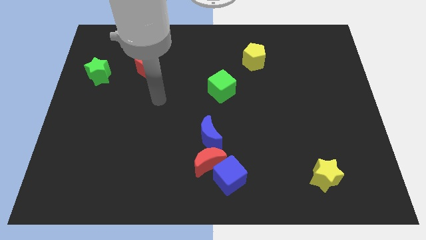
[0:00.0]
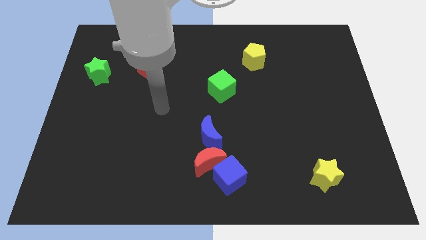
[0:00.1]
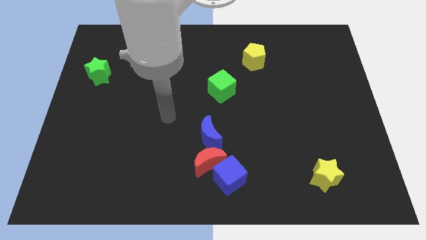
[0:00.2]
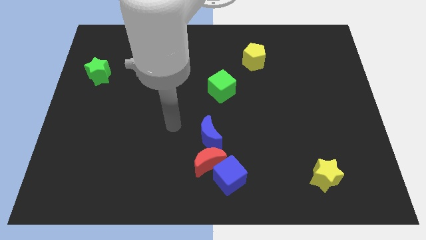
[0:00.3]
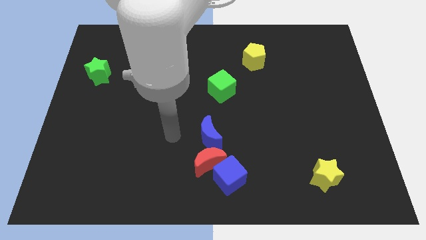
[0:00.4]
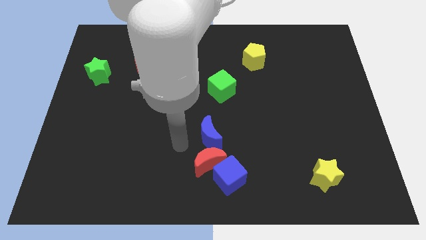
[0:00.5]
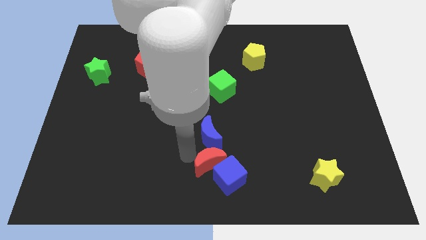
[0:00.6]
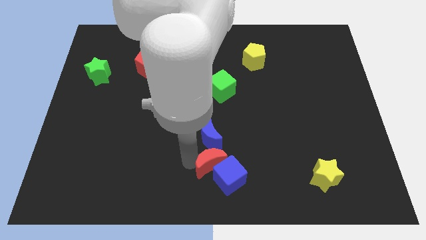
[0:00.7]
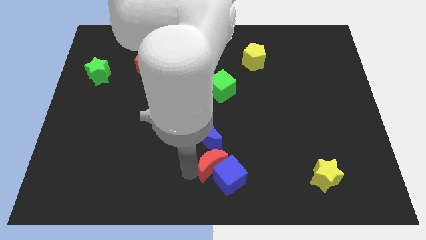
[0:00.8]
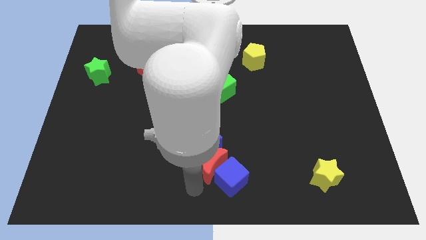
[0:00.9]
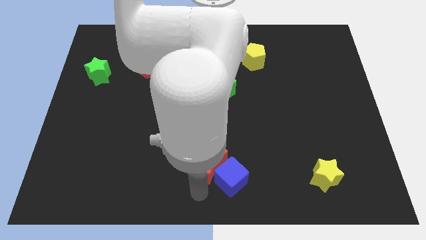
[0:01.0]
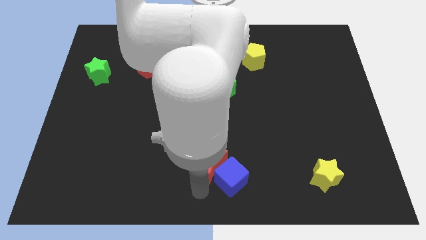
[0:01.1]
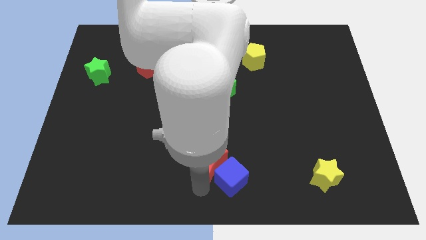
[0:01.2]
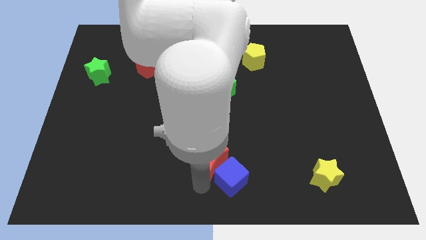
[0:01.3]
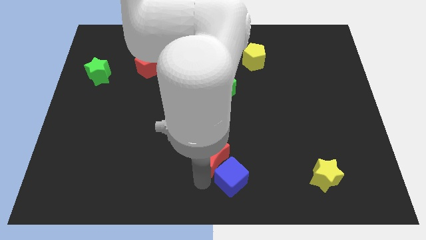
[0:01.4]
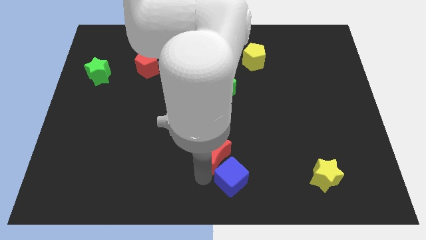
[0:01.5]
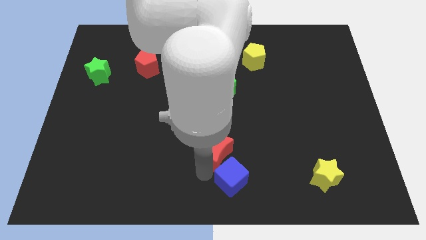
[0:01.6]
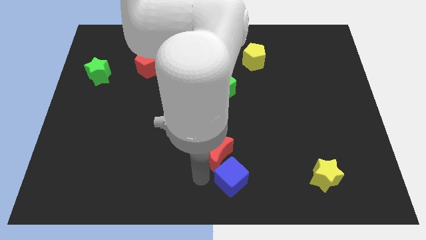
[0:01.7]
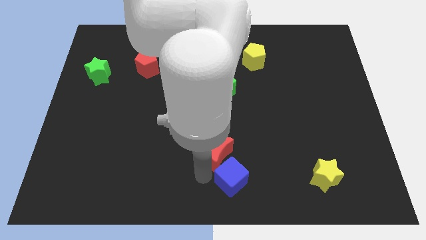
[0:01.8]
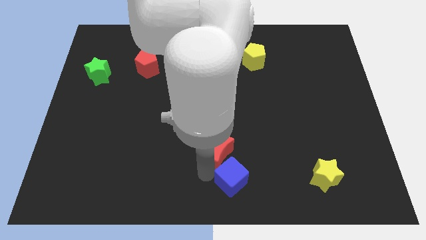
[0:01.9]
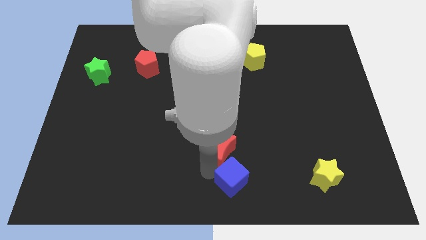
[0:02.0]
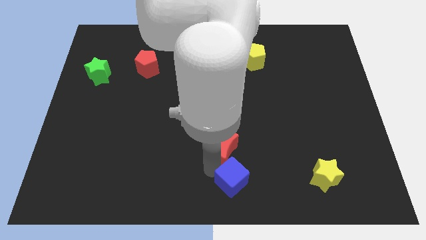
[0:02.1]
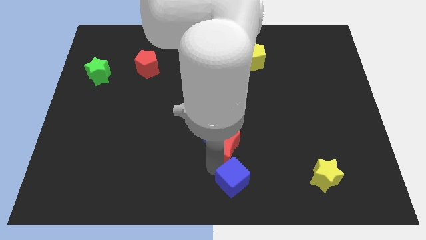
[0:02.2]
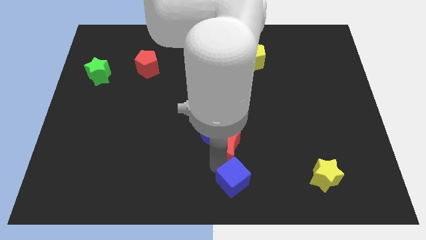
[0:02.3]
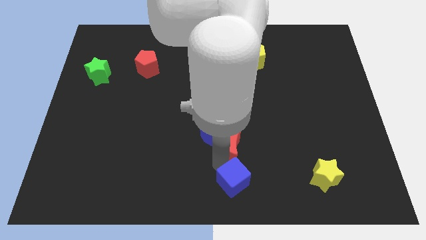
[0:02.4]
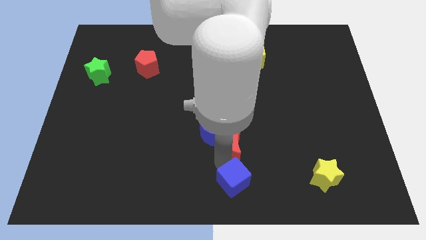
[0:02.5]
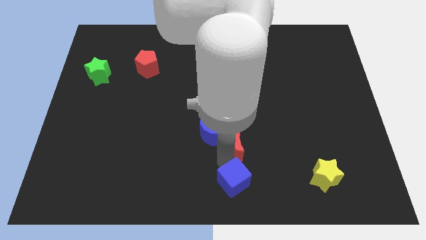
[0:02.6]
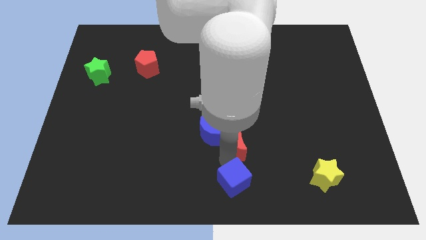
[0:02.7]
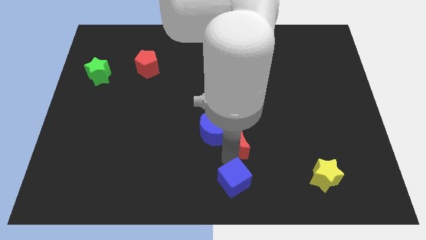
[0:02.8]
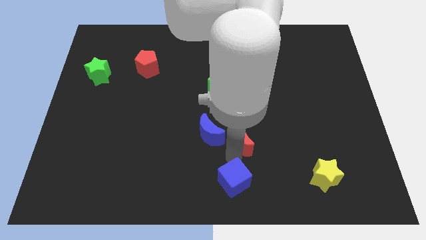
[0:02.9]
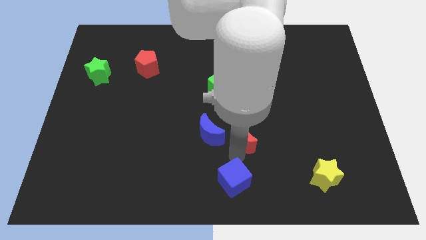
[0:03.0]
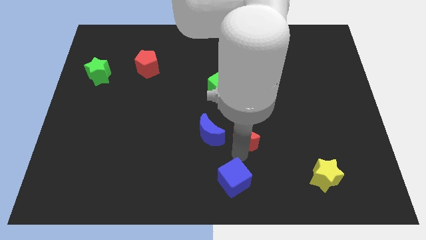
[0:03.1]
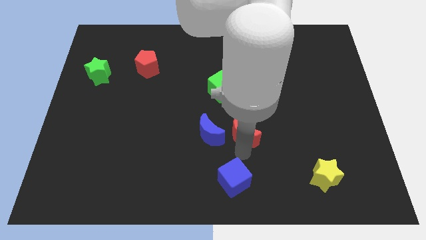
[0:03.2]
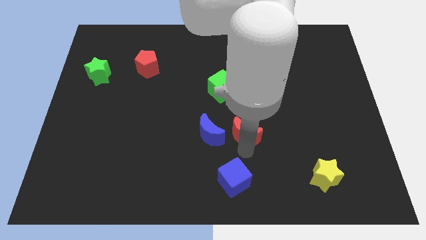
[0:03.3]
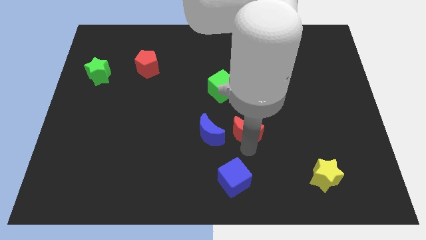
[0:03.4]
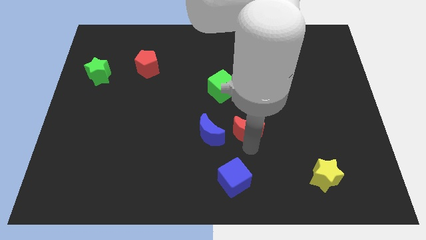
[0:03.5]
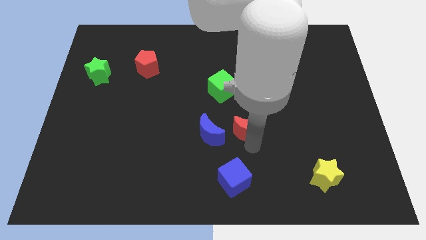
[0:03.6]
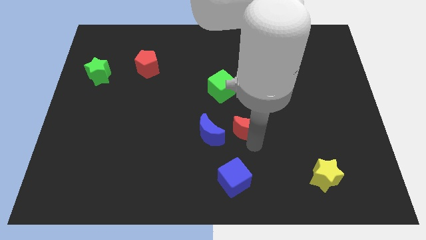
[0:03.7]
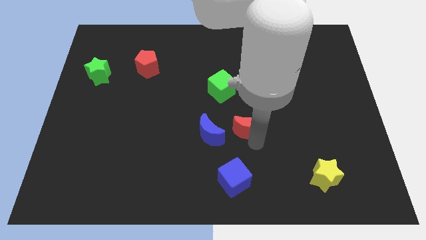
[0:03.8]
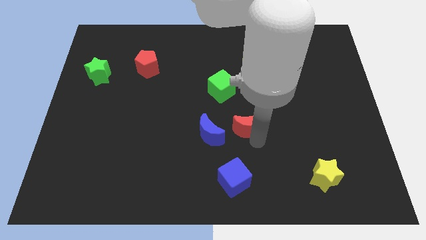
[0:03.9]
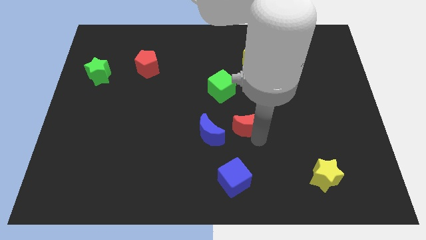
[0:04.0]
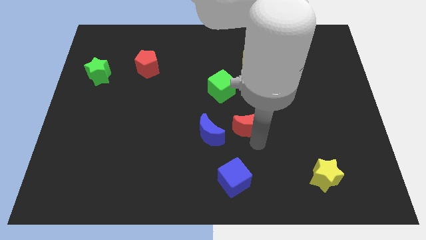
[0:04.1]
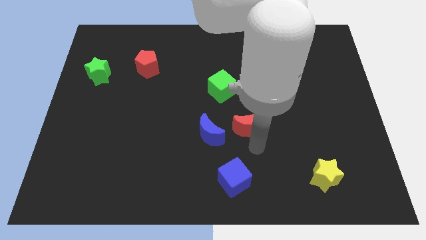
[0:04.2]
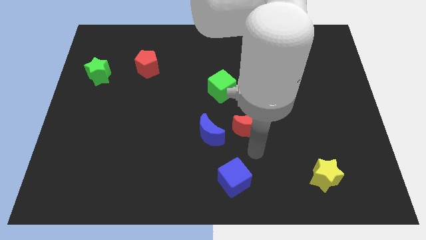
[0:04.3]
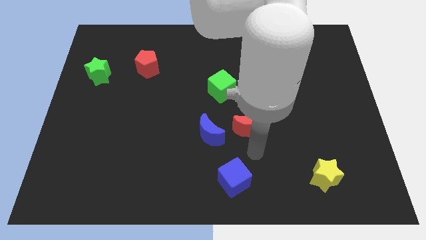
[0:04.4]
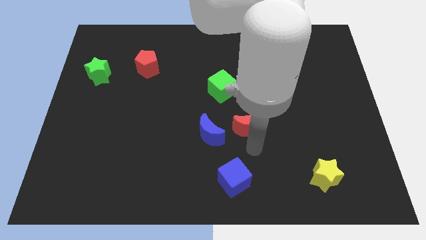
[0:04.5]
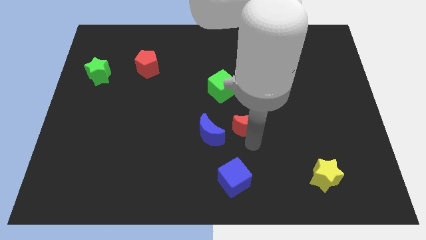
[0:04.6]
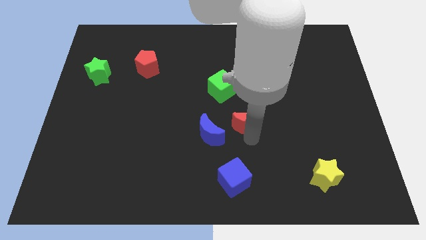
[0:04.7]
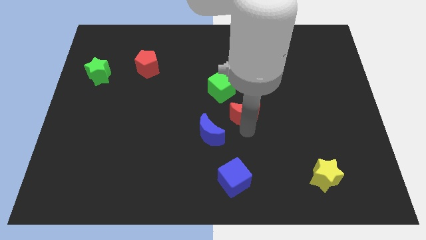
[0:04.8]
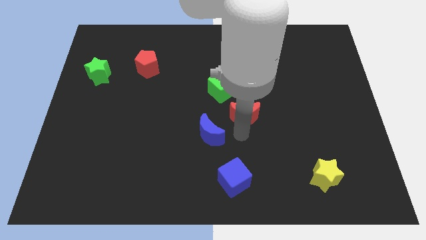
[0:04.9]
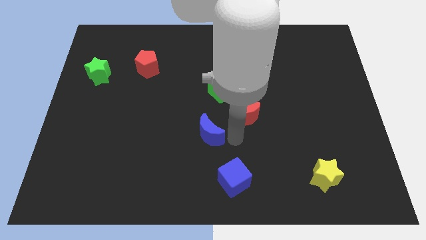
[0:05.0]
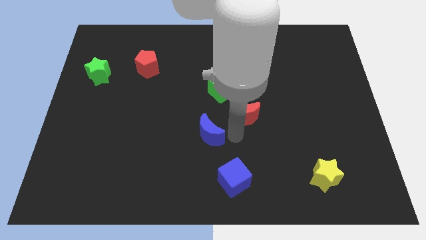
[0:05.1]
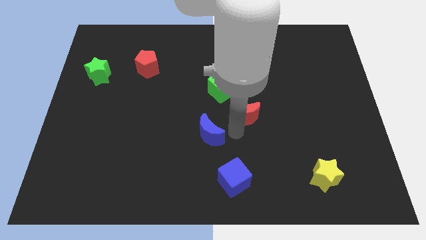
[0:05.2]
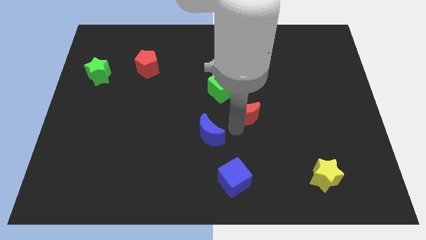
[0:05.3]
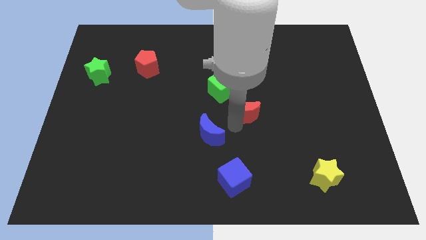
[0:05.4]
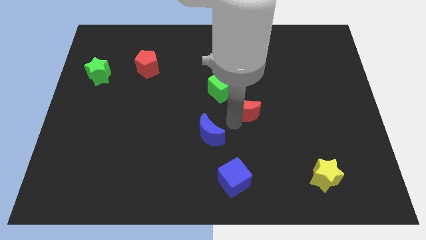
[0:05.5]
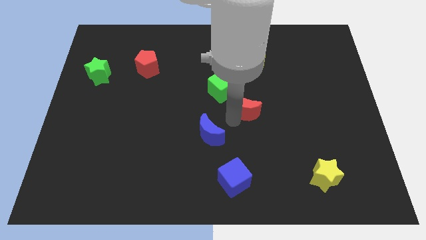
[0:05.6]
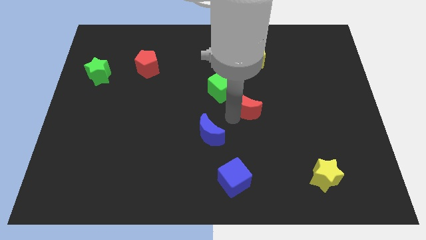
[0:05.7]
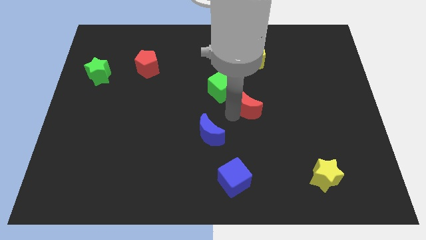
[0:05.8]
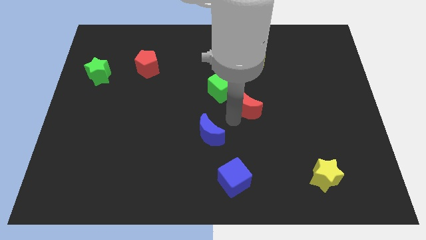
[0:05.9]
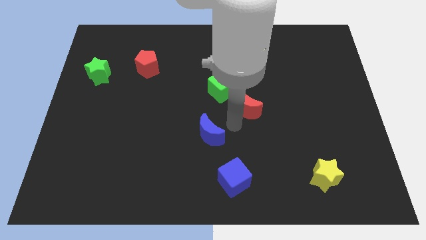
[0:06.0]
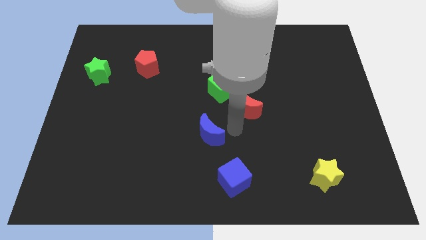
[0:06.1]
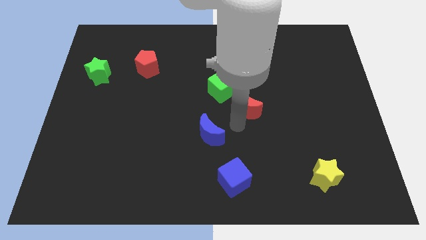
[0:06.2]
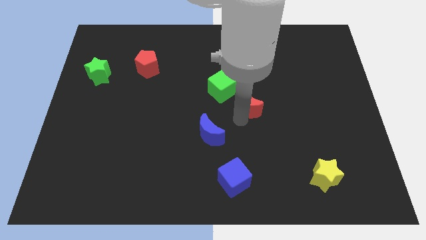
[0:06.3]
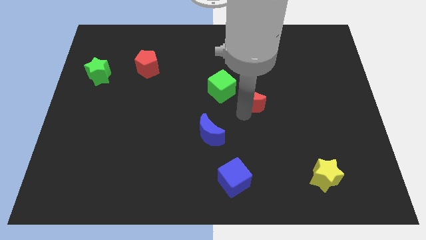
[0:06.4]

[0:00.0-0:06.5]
slide the red moon below the yellow pentagon

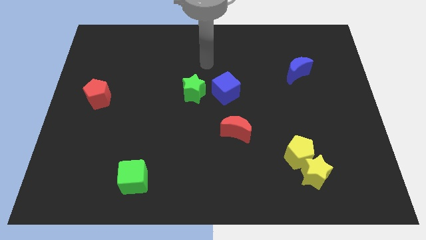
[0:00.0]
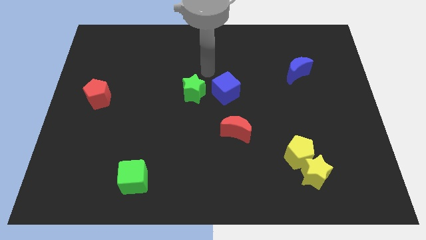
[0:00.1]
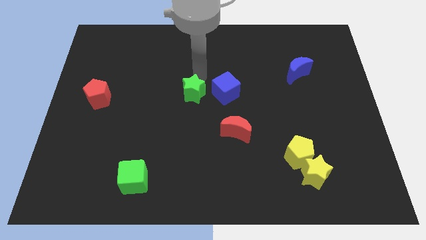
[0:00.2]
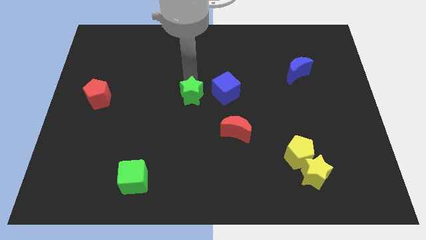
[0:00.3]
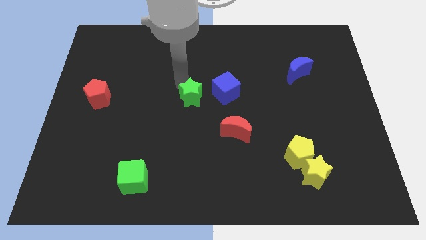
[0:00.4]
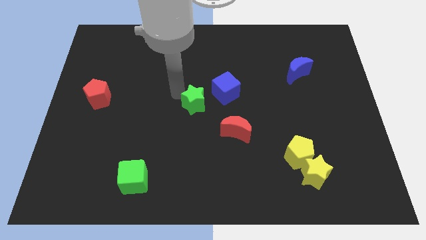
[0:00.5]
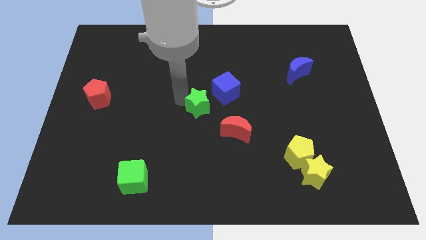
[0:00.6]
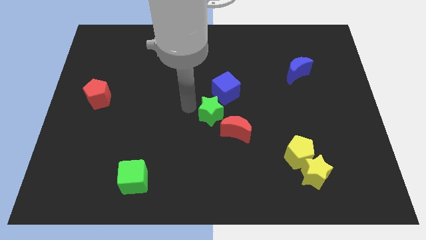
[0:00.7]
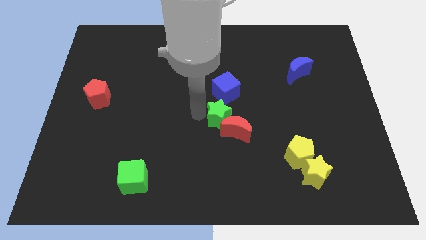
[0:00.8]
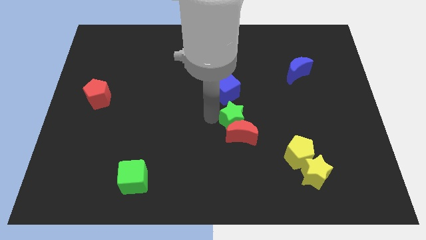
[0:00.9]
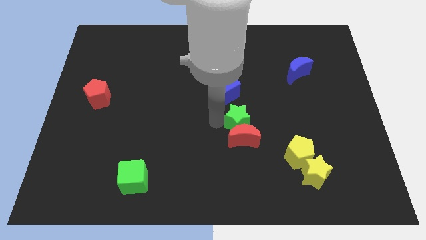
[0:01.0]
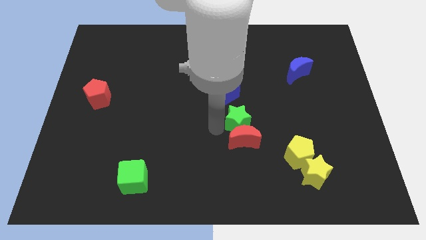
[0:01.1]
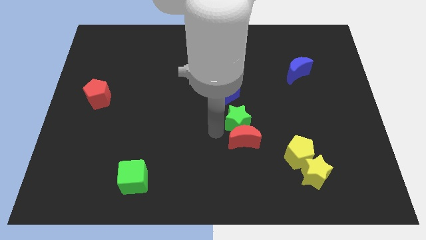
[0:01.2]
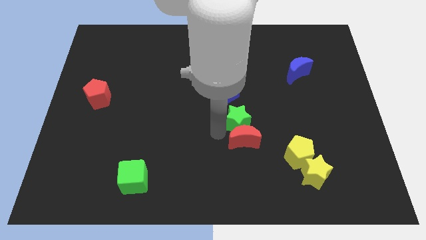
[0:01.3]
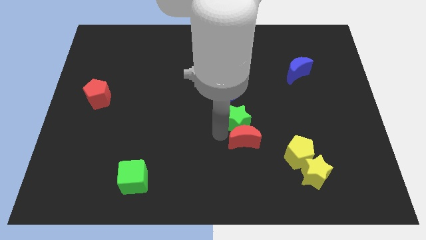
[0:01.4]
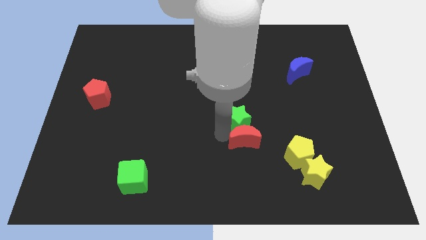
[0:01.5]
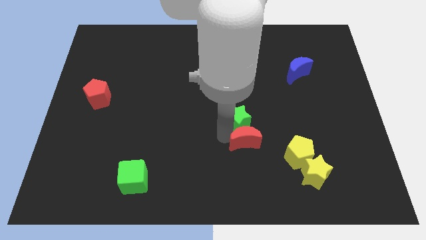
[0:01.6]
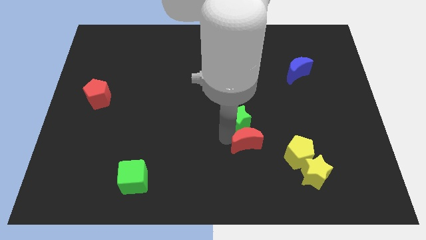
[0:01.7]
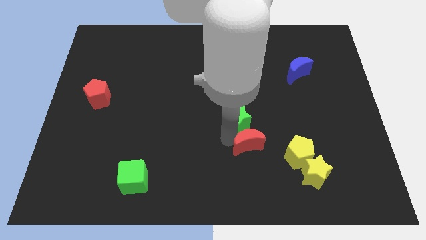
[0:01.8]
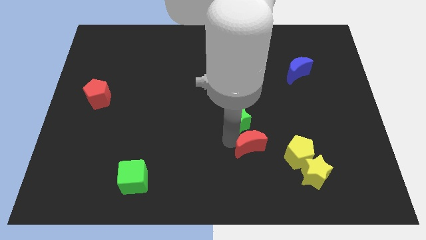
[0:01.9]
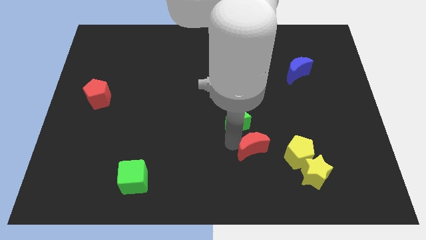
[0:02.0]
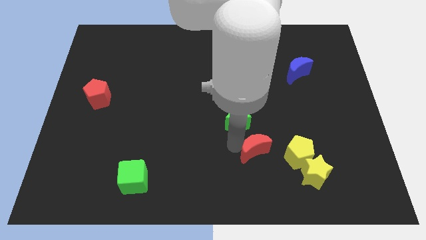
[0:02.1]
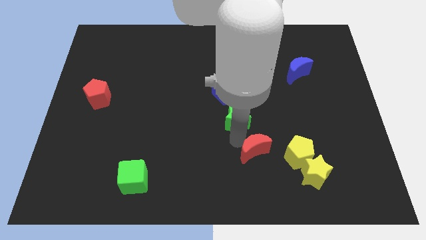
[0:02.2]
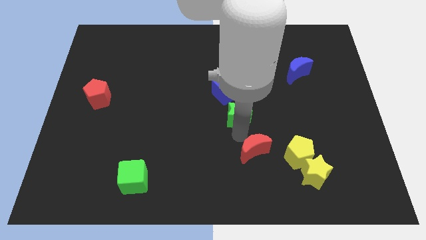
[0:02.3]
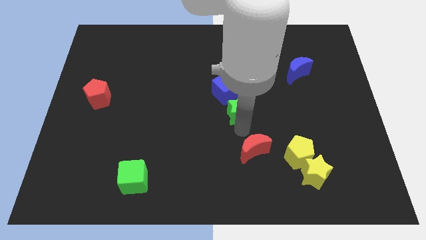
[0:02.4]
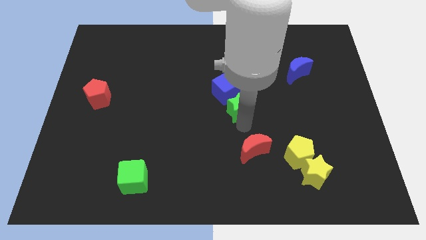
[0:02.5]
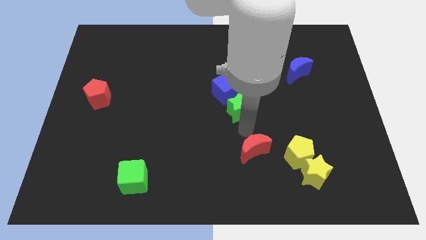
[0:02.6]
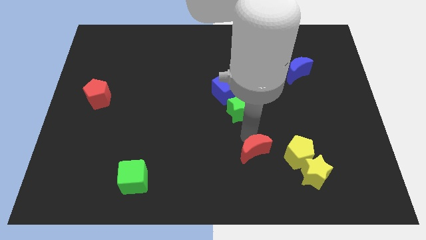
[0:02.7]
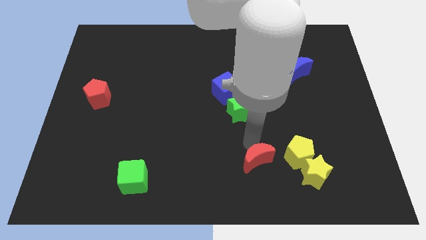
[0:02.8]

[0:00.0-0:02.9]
push the red moon to the left of the yellow star
